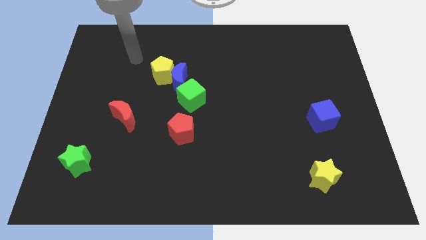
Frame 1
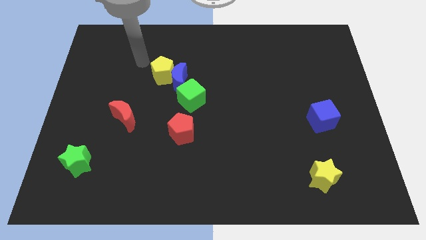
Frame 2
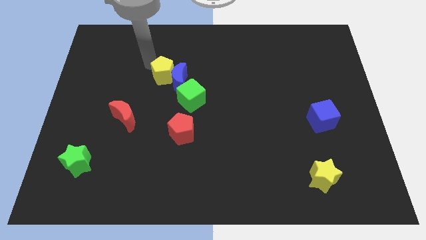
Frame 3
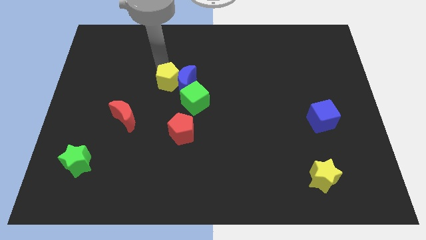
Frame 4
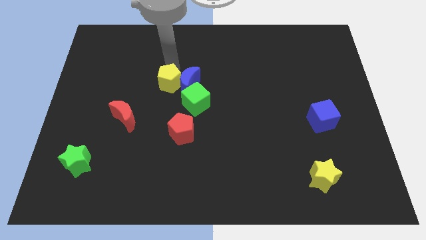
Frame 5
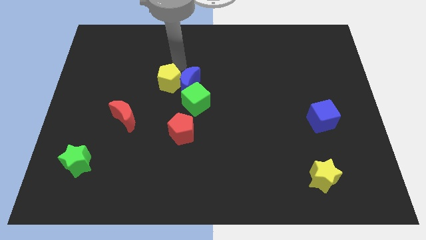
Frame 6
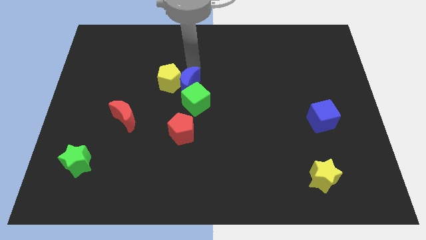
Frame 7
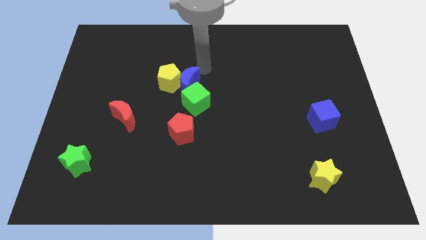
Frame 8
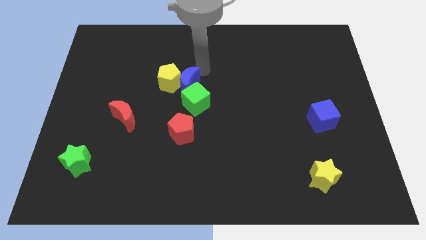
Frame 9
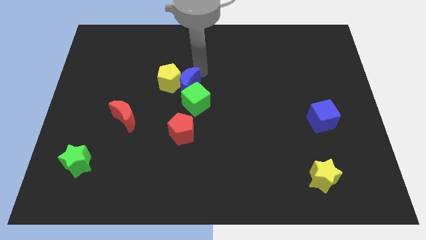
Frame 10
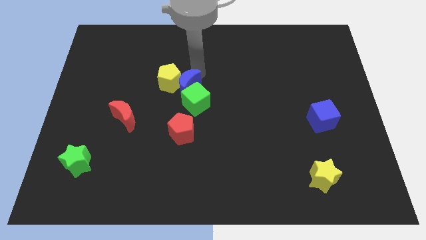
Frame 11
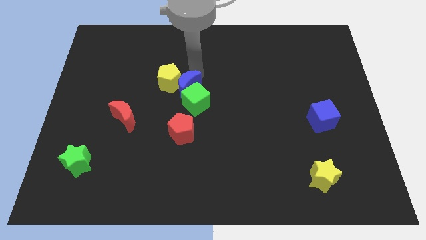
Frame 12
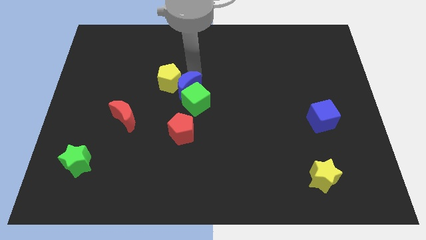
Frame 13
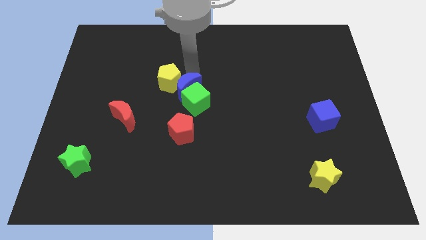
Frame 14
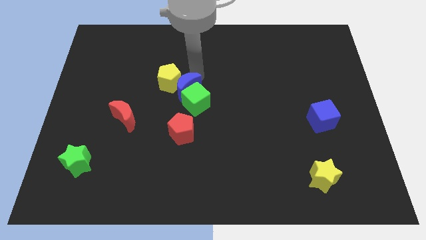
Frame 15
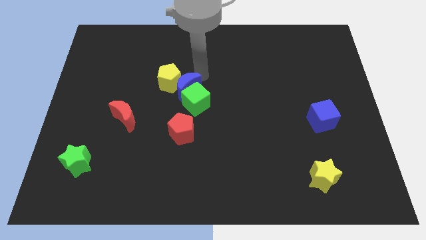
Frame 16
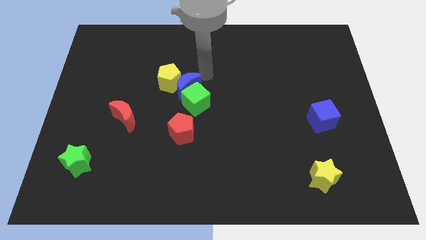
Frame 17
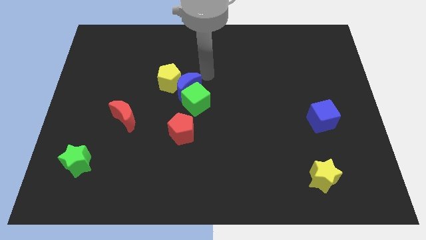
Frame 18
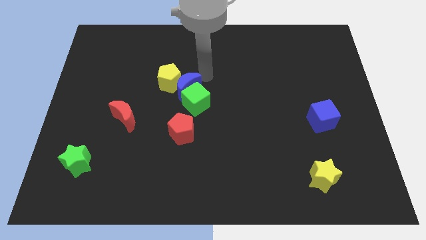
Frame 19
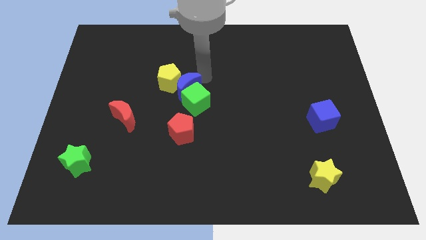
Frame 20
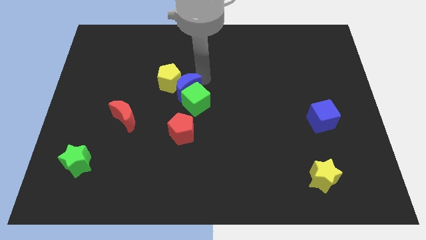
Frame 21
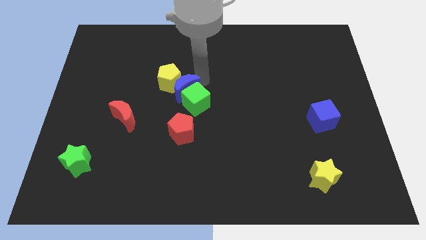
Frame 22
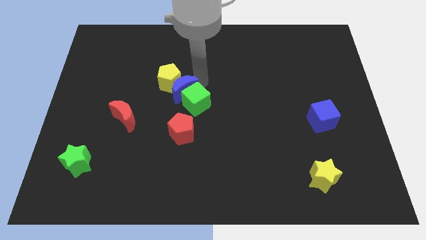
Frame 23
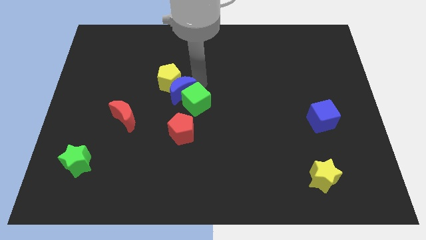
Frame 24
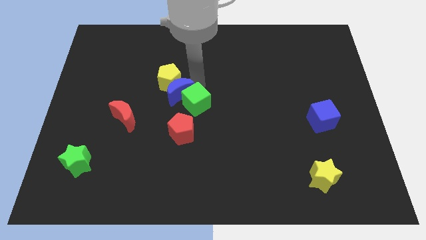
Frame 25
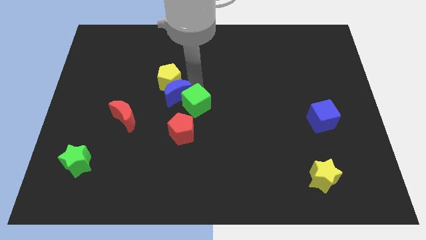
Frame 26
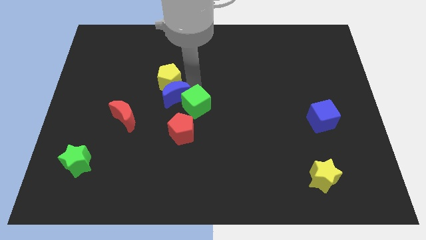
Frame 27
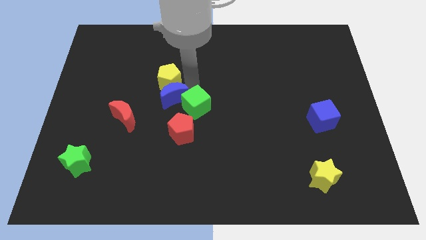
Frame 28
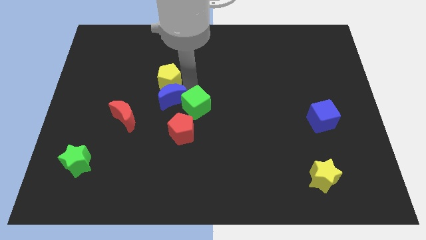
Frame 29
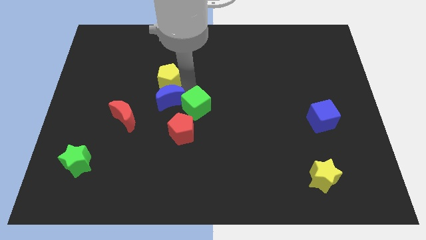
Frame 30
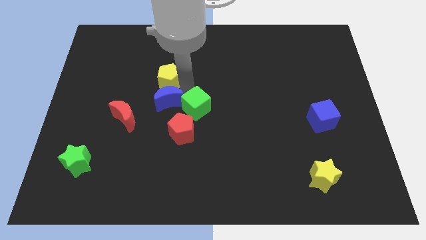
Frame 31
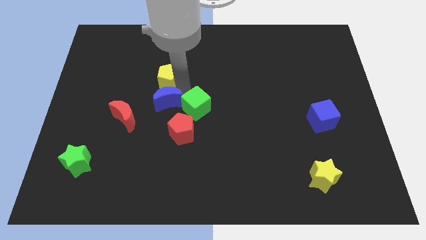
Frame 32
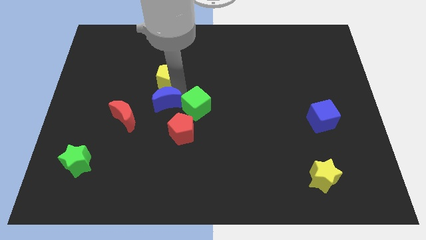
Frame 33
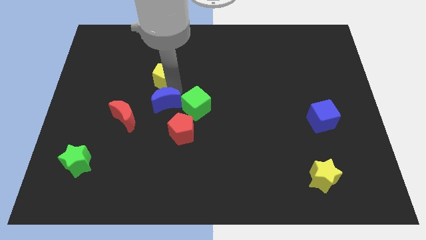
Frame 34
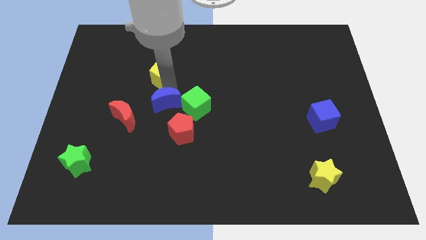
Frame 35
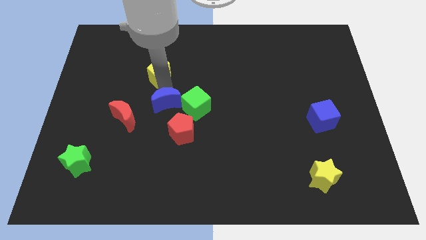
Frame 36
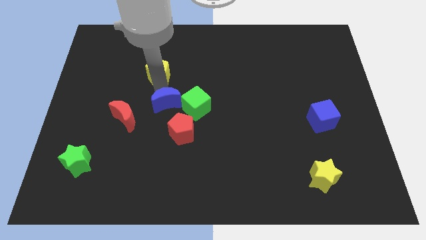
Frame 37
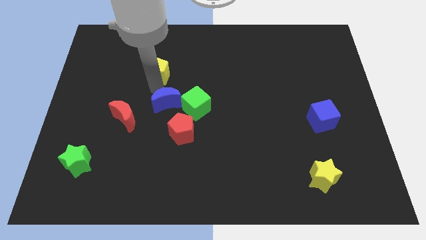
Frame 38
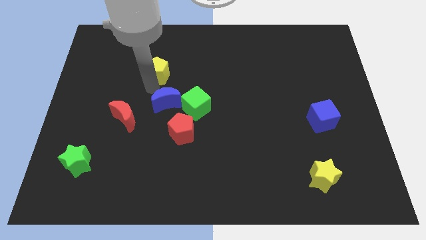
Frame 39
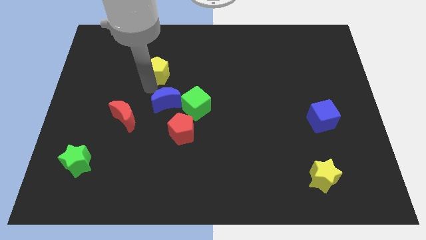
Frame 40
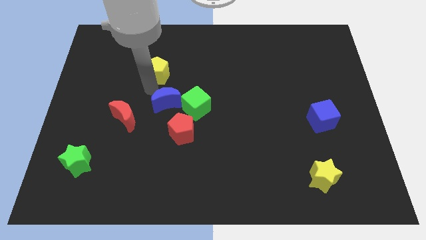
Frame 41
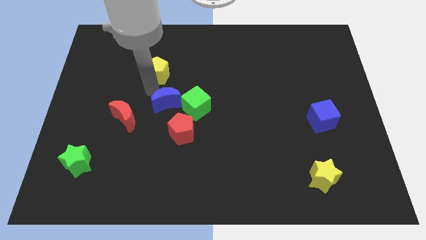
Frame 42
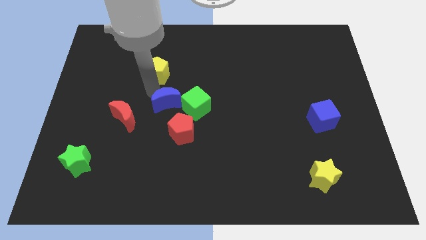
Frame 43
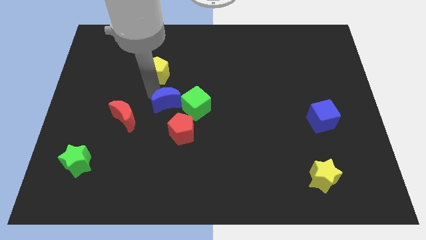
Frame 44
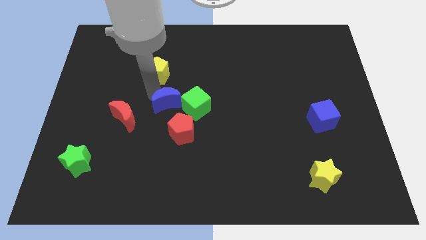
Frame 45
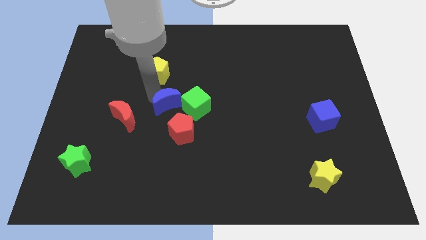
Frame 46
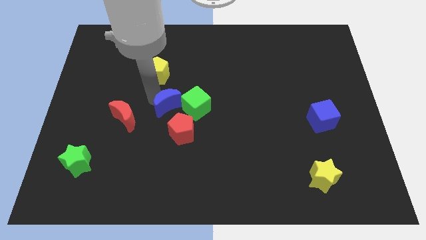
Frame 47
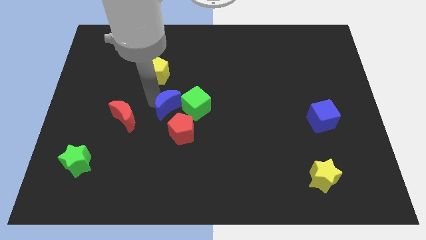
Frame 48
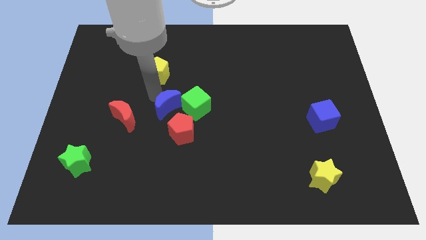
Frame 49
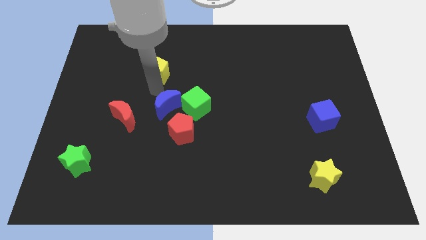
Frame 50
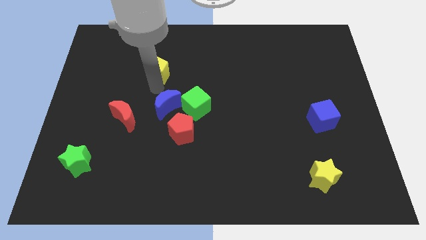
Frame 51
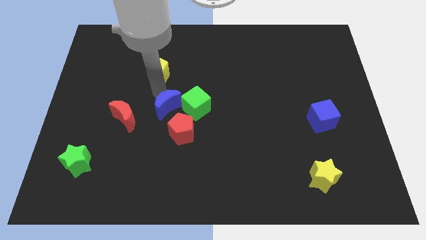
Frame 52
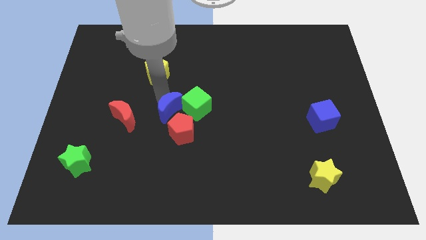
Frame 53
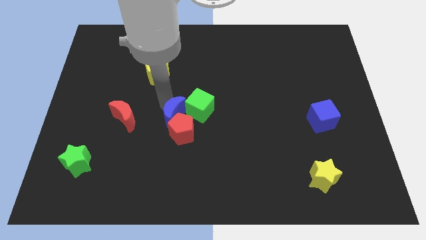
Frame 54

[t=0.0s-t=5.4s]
push the blue moon to the red pentagon

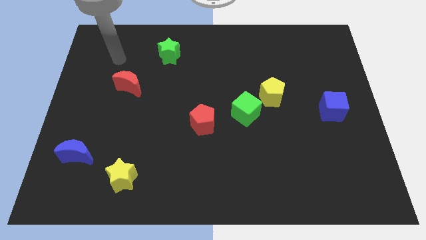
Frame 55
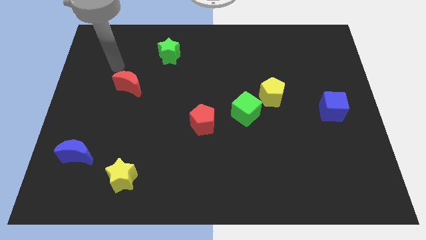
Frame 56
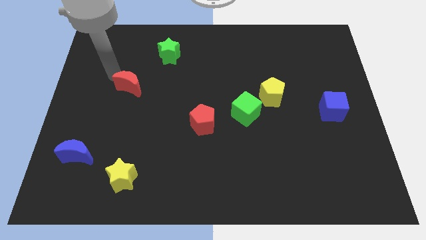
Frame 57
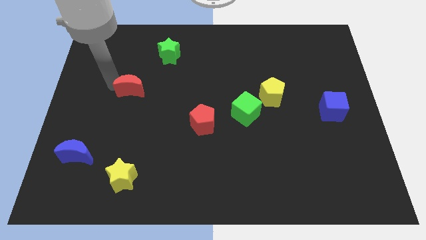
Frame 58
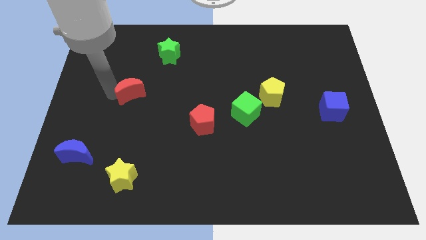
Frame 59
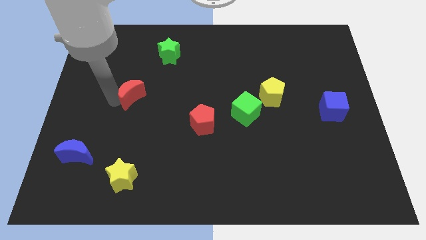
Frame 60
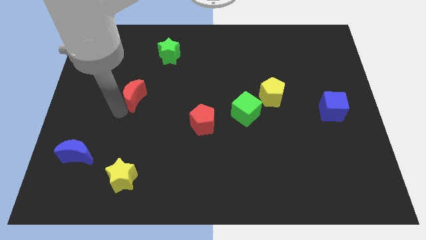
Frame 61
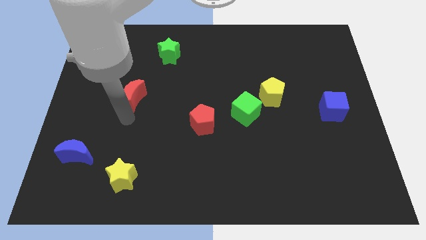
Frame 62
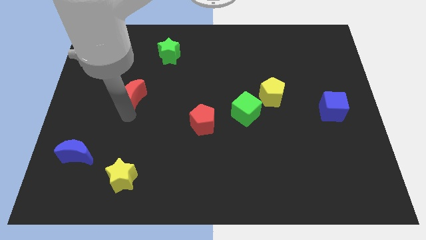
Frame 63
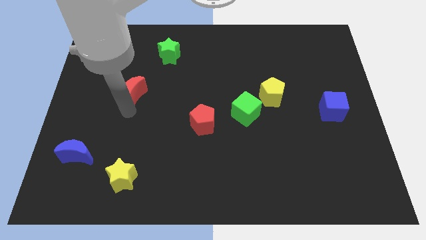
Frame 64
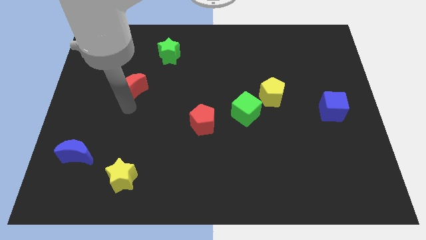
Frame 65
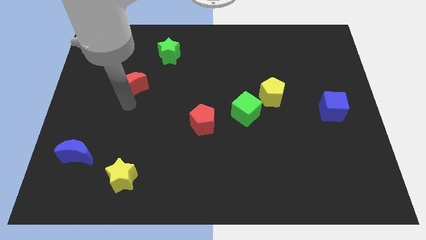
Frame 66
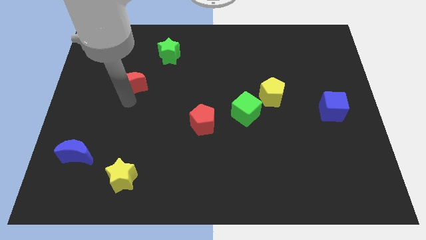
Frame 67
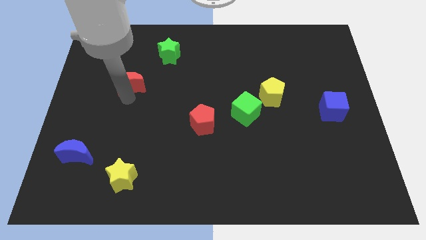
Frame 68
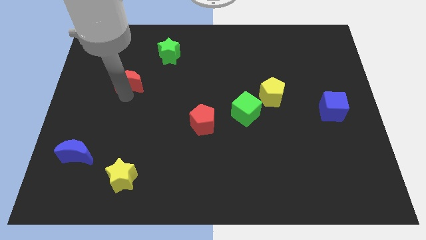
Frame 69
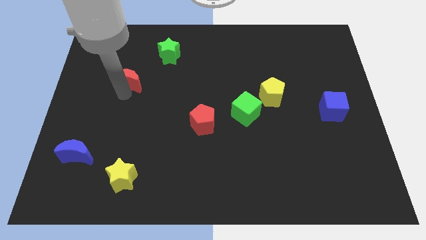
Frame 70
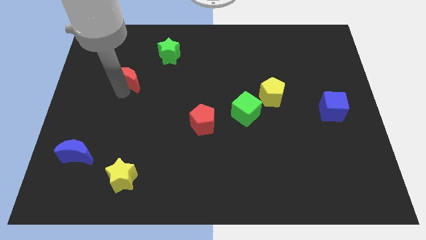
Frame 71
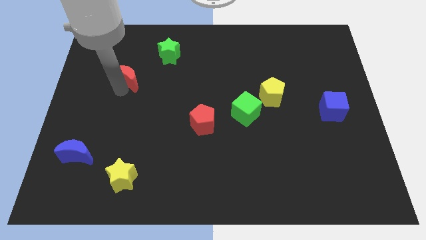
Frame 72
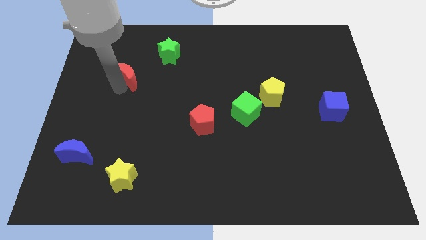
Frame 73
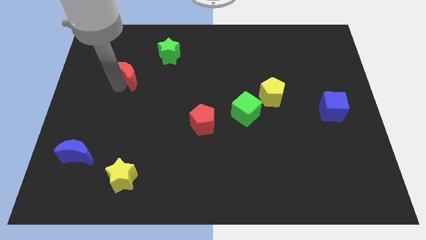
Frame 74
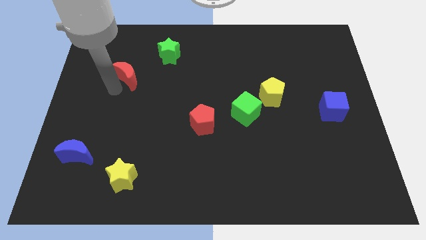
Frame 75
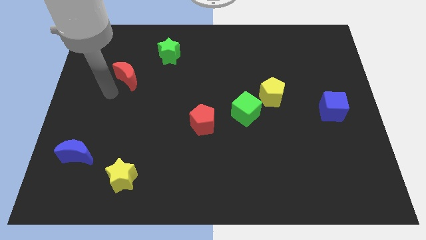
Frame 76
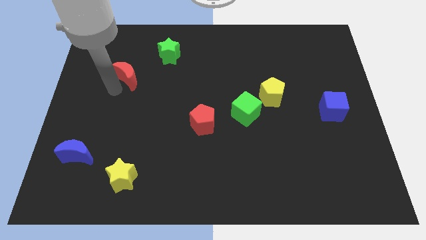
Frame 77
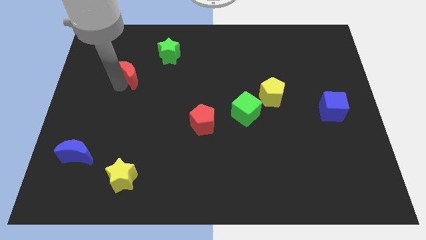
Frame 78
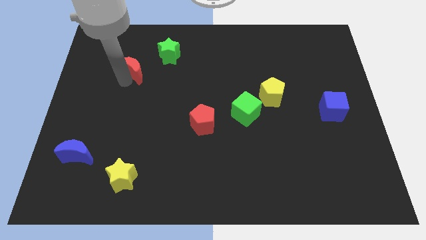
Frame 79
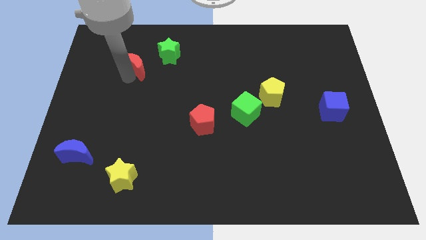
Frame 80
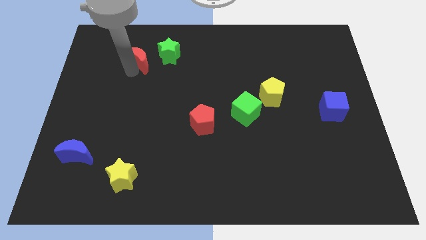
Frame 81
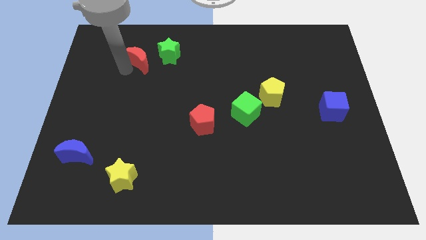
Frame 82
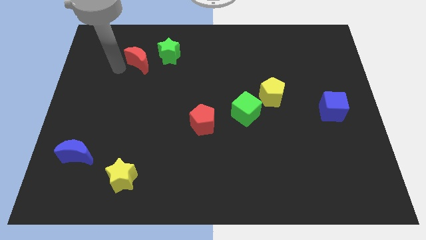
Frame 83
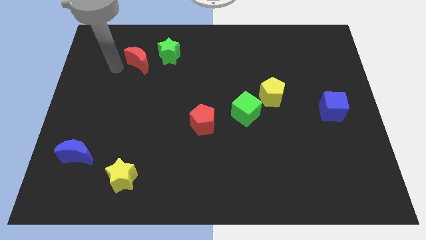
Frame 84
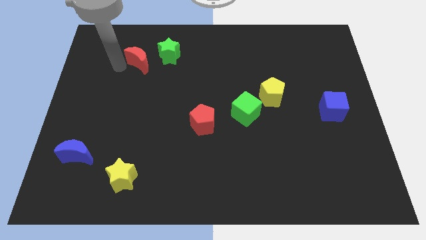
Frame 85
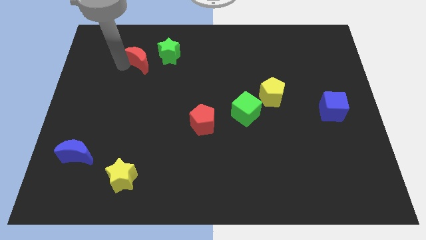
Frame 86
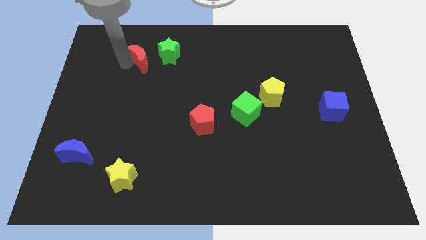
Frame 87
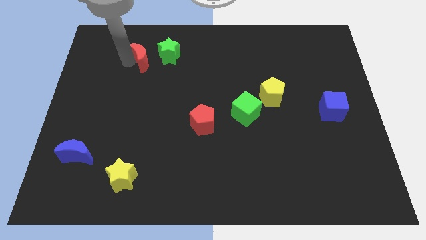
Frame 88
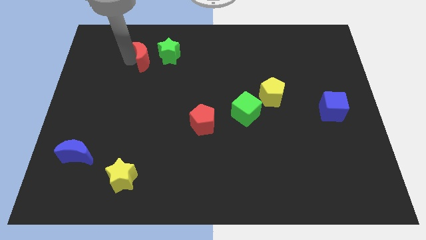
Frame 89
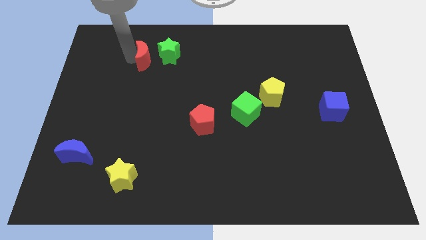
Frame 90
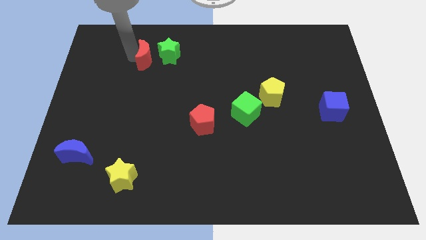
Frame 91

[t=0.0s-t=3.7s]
push the red moon close to the green star
